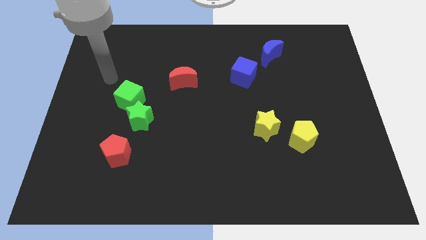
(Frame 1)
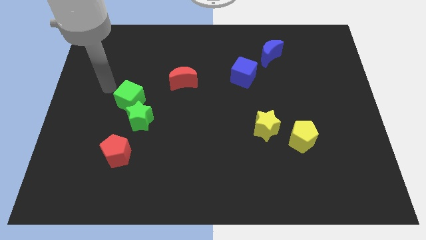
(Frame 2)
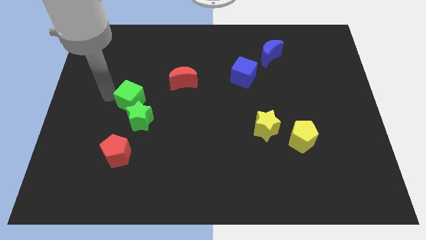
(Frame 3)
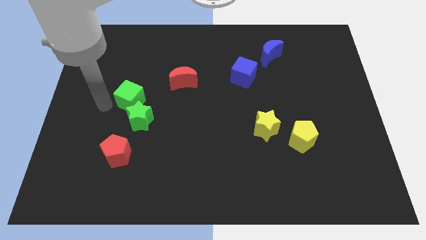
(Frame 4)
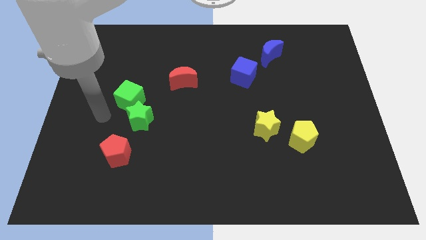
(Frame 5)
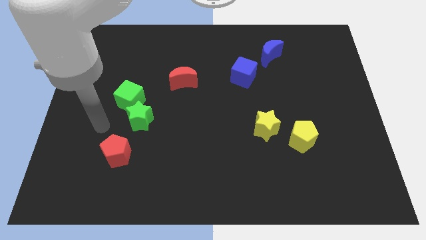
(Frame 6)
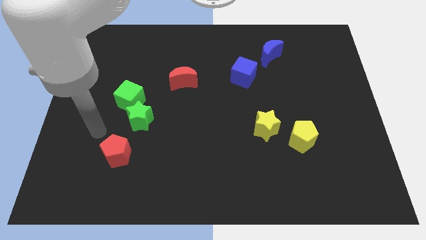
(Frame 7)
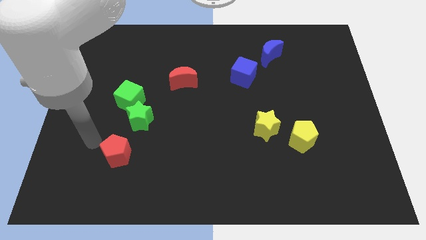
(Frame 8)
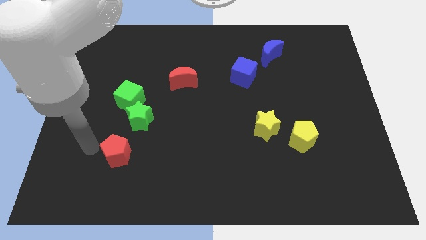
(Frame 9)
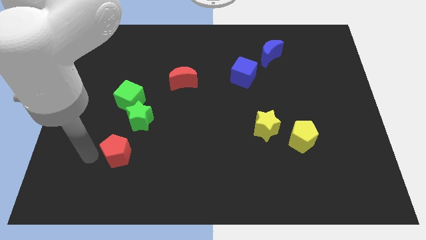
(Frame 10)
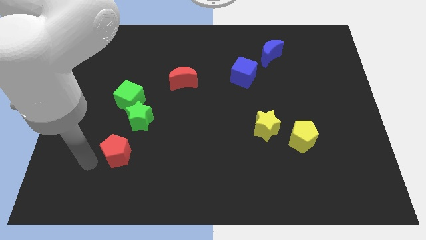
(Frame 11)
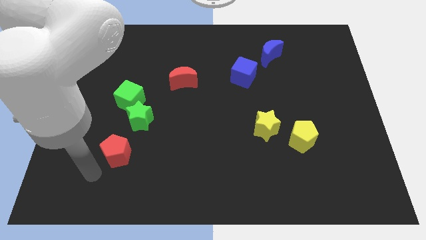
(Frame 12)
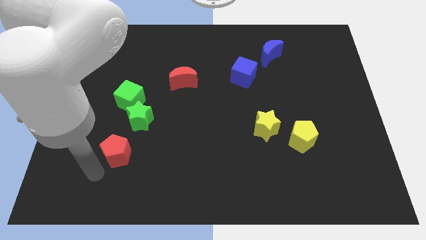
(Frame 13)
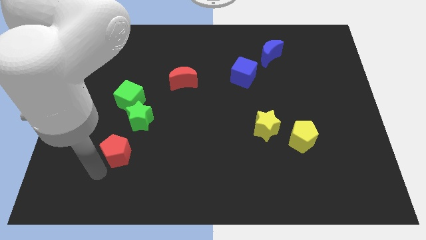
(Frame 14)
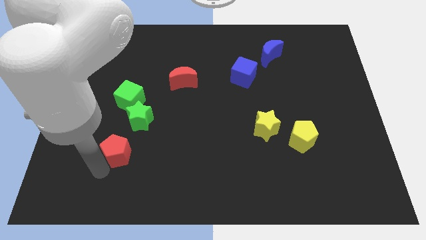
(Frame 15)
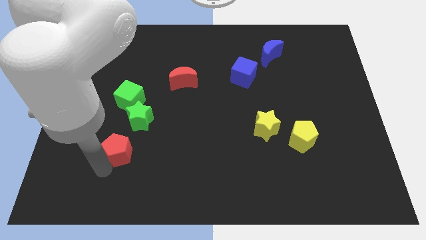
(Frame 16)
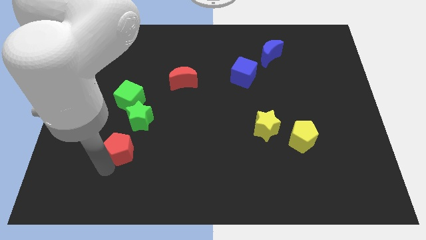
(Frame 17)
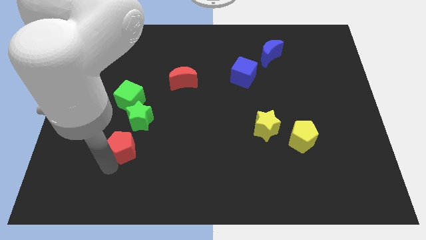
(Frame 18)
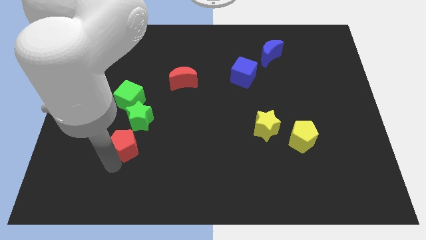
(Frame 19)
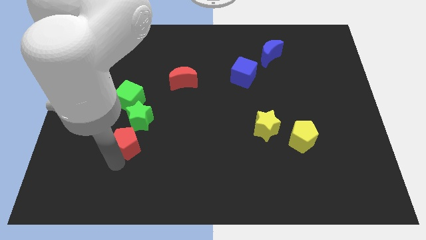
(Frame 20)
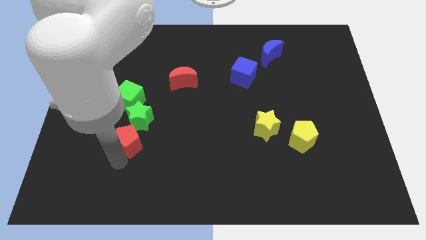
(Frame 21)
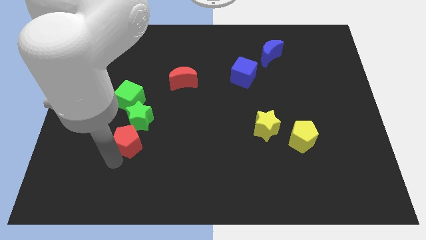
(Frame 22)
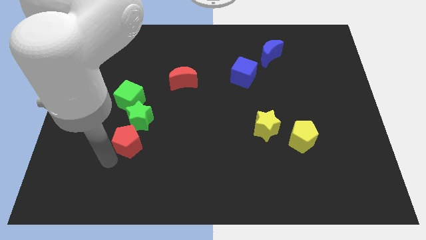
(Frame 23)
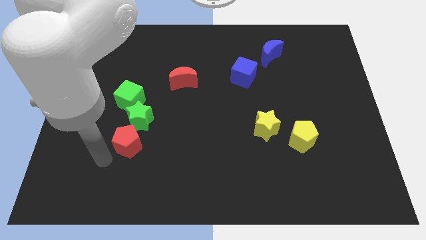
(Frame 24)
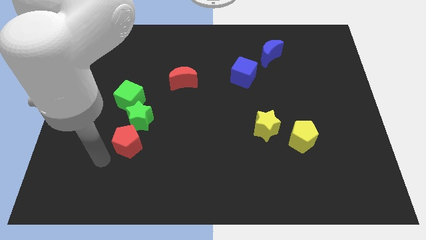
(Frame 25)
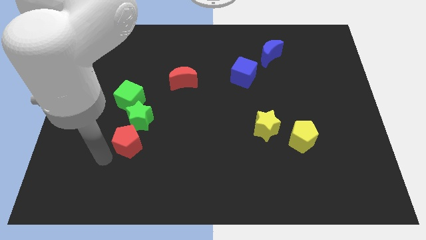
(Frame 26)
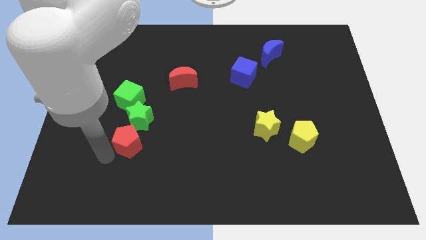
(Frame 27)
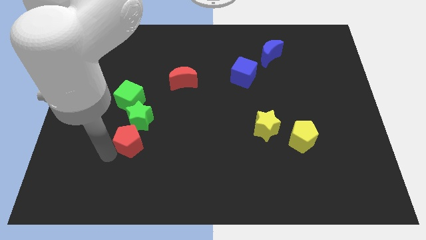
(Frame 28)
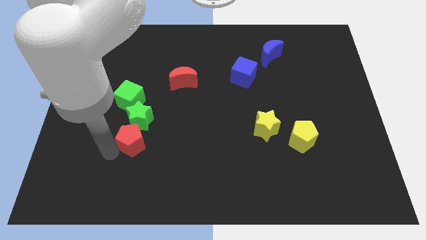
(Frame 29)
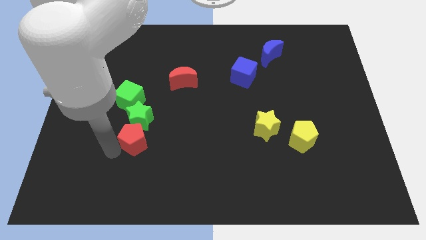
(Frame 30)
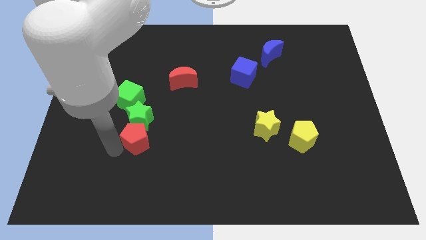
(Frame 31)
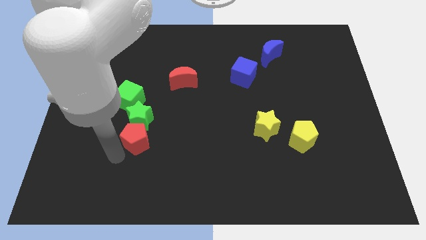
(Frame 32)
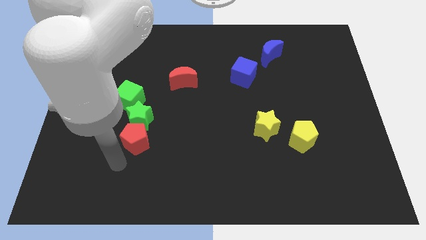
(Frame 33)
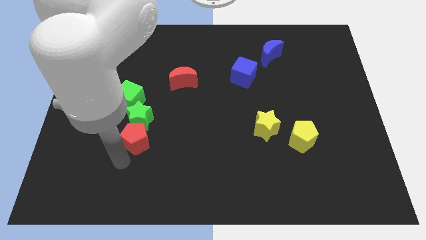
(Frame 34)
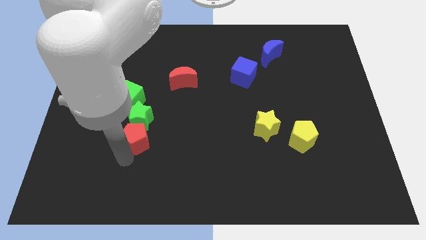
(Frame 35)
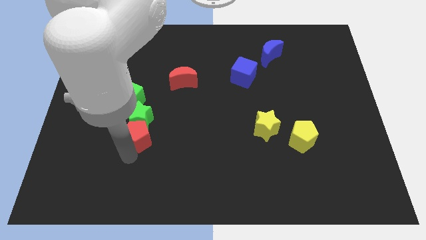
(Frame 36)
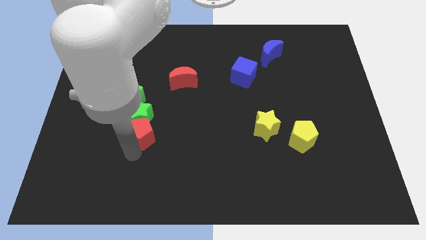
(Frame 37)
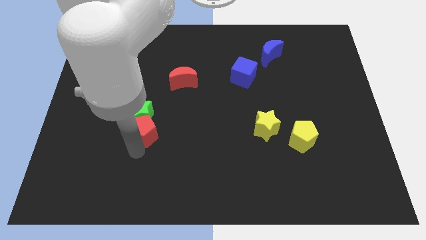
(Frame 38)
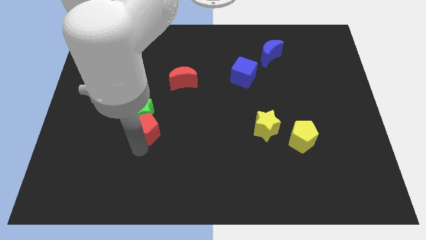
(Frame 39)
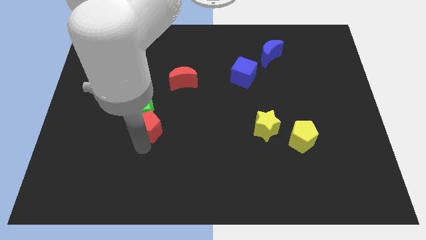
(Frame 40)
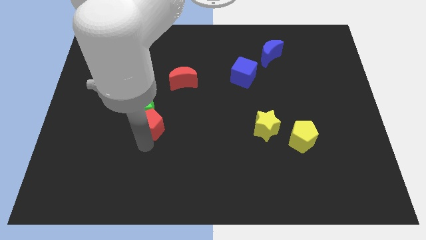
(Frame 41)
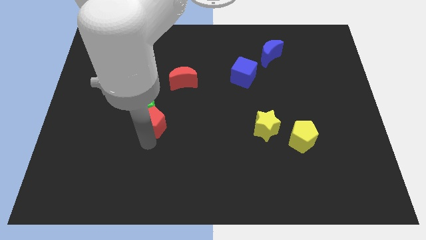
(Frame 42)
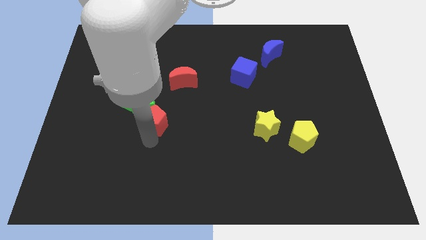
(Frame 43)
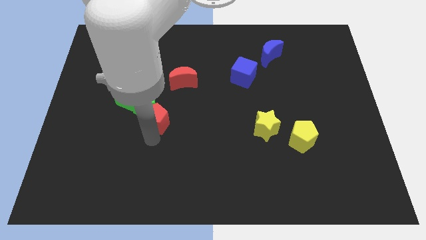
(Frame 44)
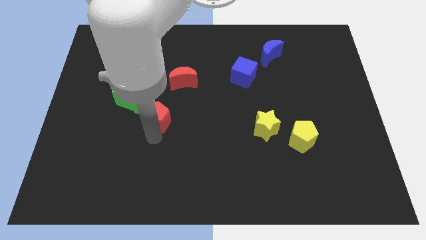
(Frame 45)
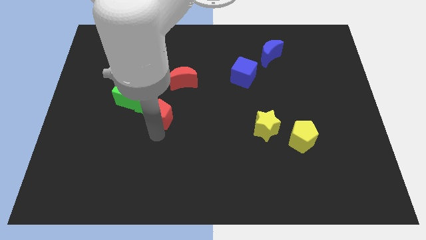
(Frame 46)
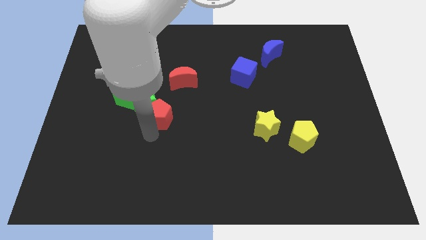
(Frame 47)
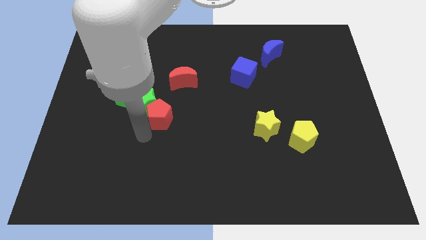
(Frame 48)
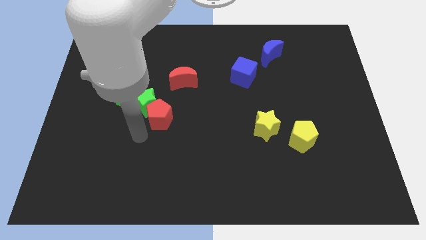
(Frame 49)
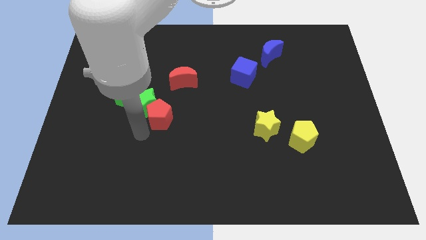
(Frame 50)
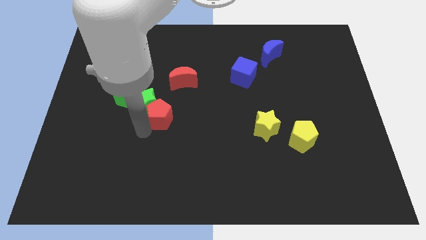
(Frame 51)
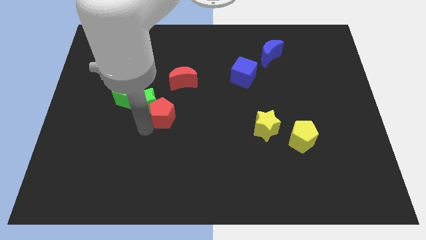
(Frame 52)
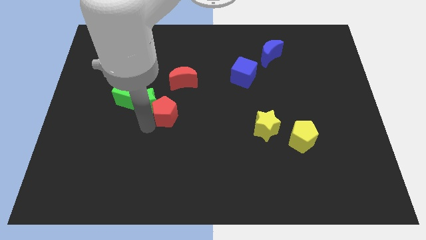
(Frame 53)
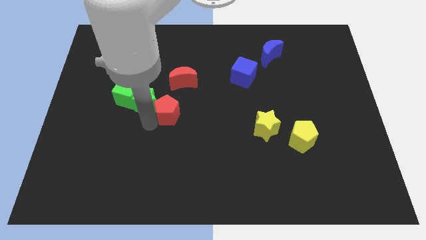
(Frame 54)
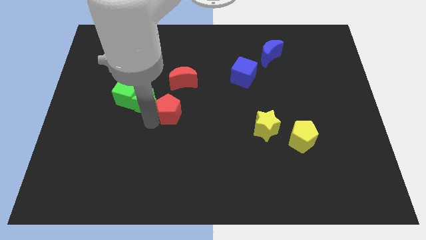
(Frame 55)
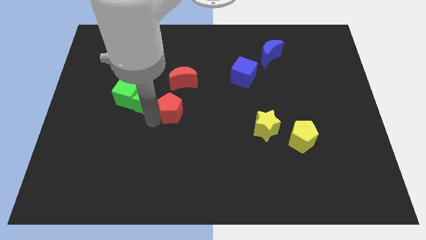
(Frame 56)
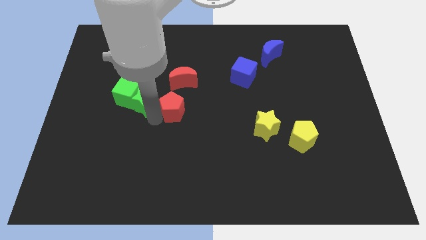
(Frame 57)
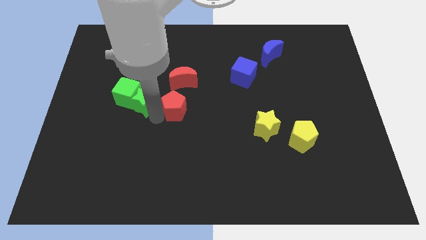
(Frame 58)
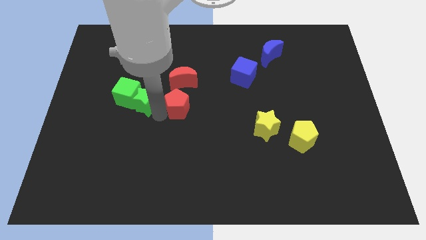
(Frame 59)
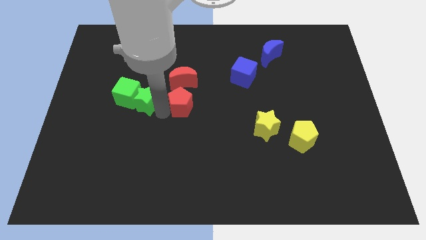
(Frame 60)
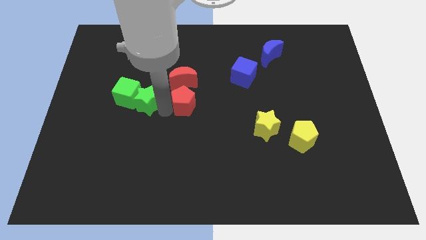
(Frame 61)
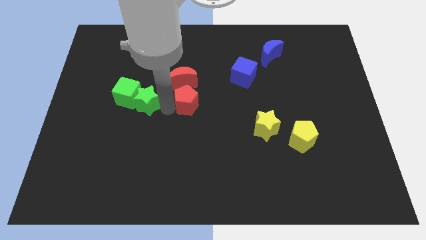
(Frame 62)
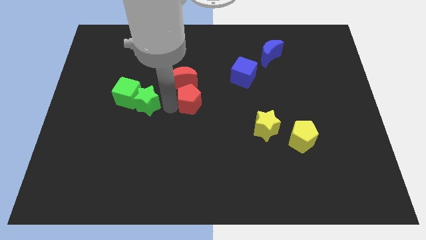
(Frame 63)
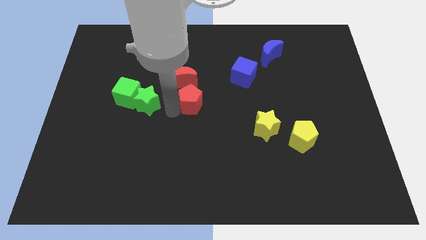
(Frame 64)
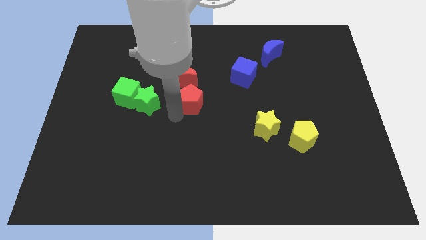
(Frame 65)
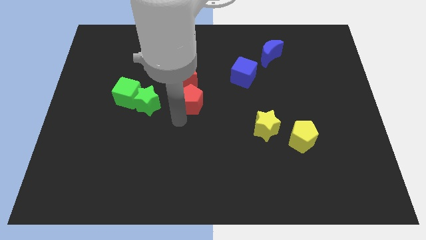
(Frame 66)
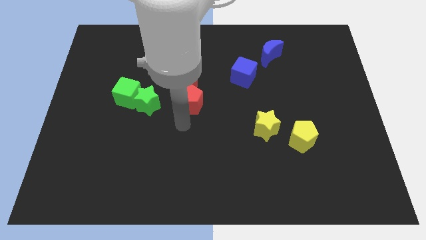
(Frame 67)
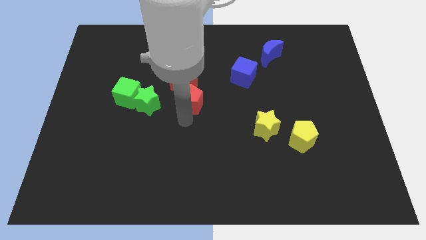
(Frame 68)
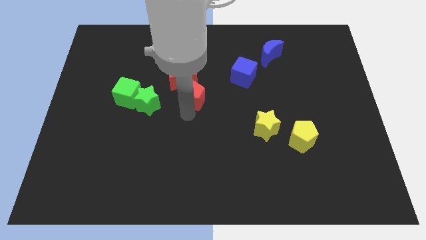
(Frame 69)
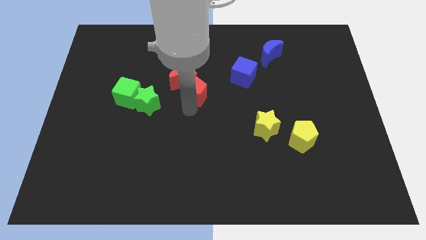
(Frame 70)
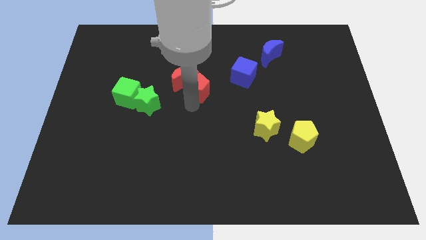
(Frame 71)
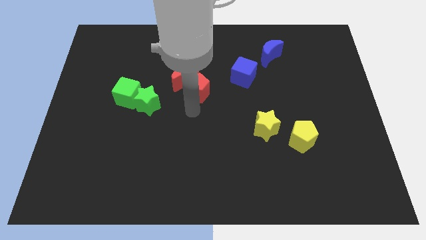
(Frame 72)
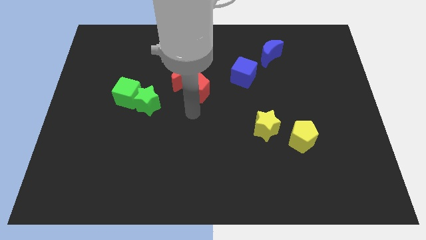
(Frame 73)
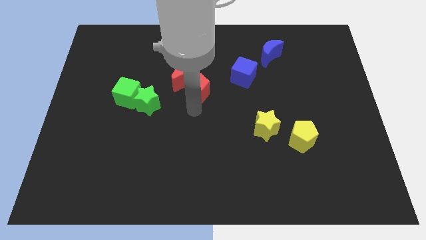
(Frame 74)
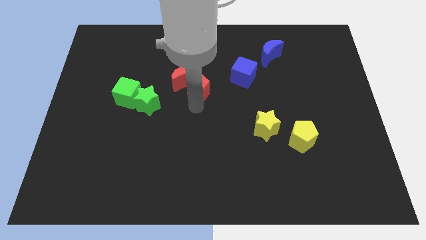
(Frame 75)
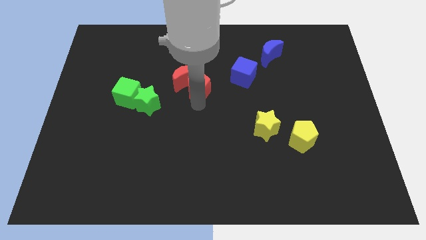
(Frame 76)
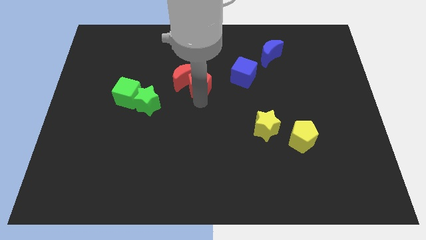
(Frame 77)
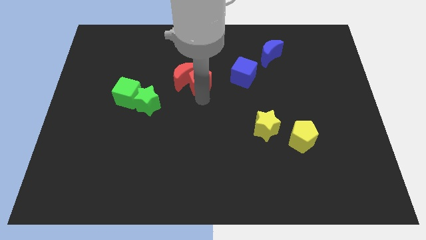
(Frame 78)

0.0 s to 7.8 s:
slide the red pentagon diagonally up and to the right of the red moon
